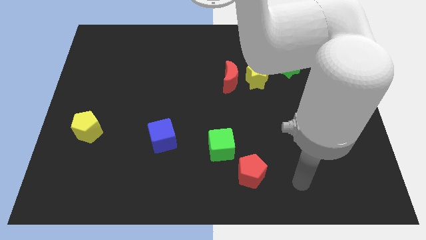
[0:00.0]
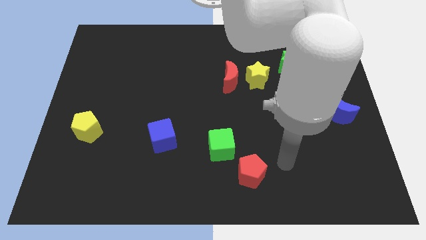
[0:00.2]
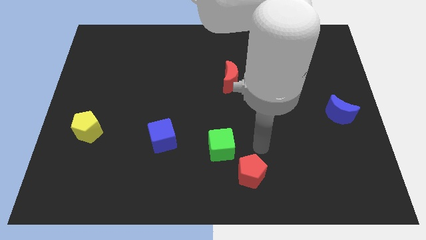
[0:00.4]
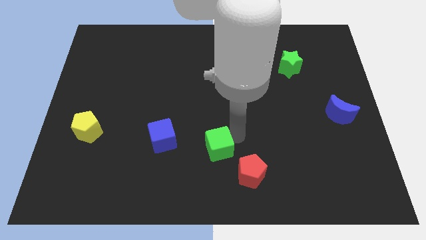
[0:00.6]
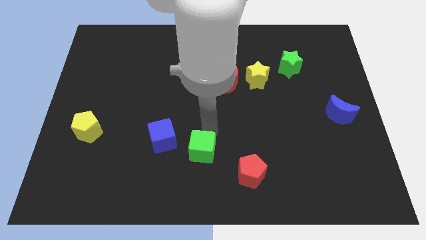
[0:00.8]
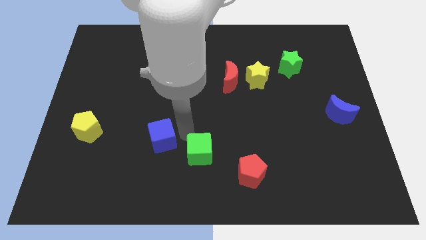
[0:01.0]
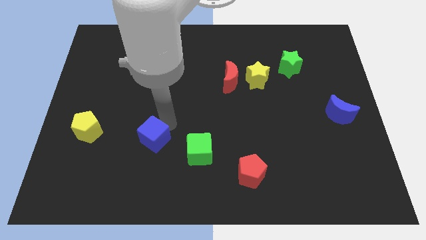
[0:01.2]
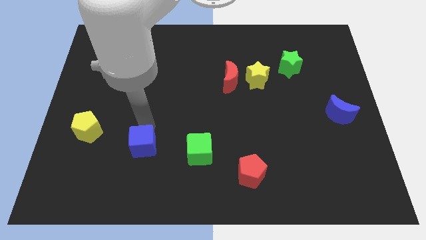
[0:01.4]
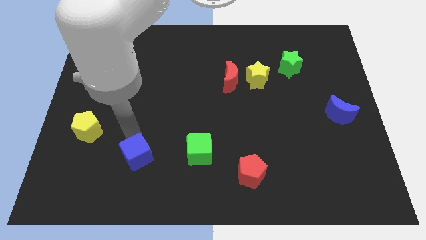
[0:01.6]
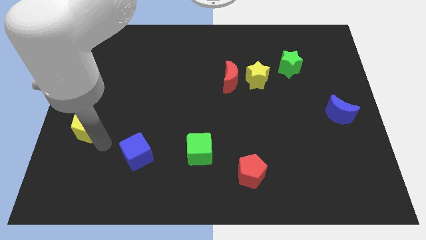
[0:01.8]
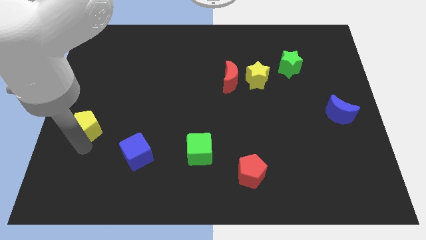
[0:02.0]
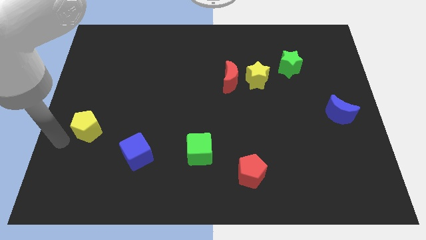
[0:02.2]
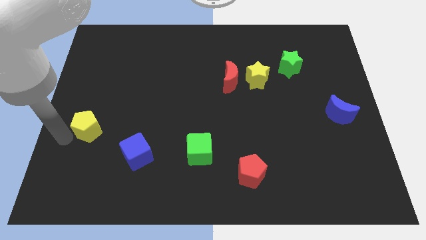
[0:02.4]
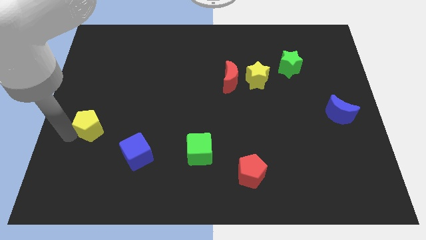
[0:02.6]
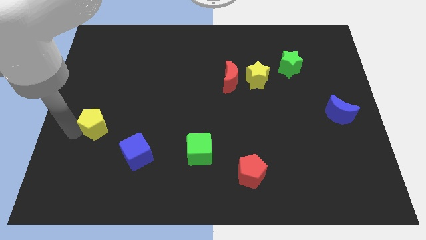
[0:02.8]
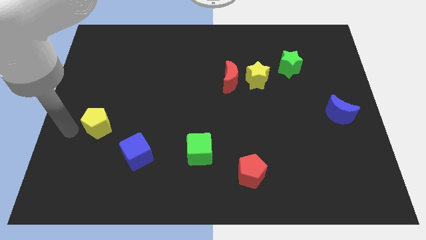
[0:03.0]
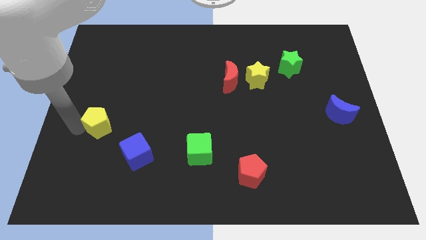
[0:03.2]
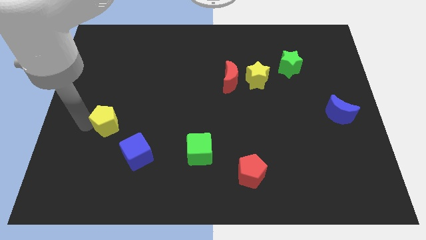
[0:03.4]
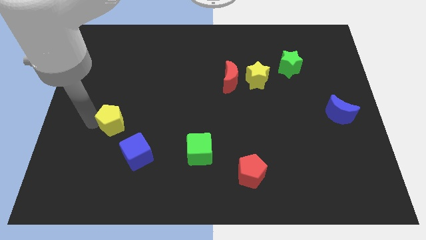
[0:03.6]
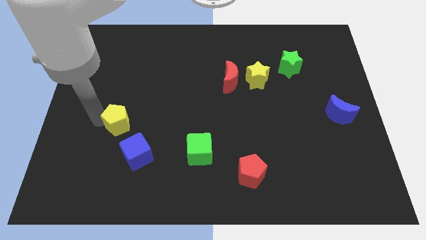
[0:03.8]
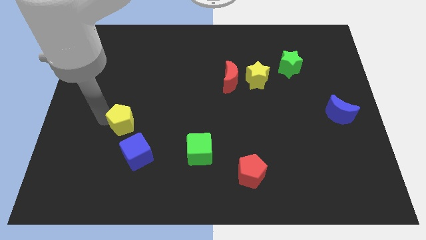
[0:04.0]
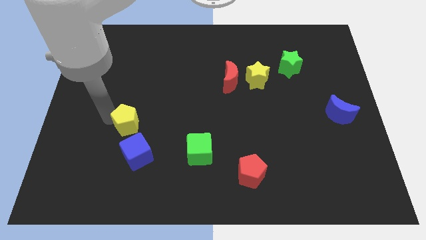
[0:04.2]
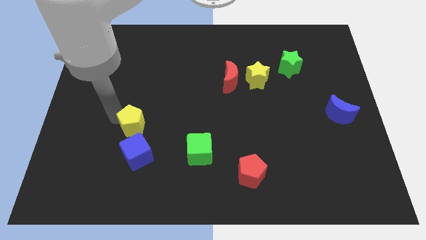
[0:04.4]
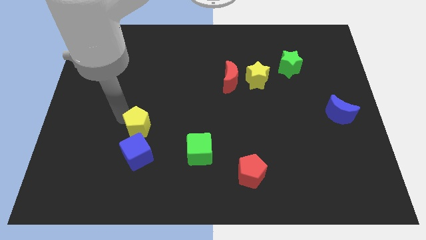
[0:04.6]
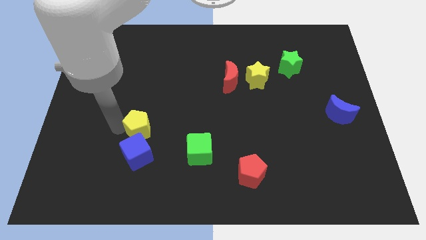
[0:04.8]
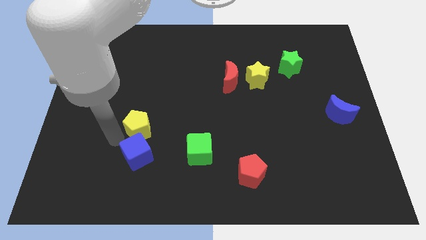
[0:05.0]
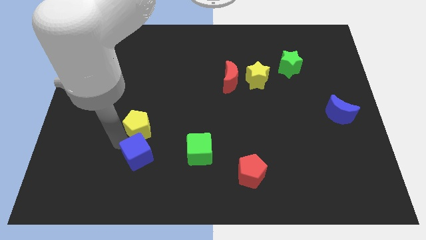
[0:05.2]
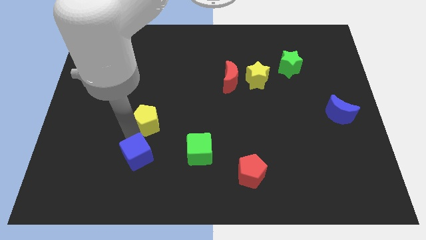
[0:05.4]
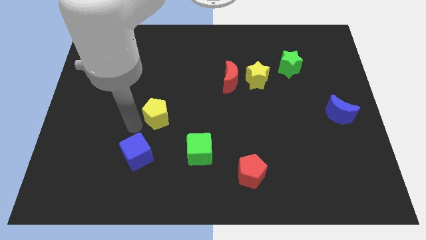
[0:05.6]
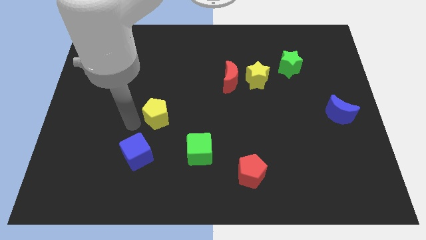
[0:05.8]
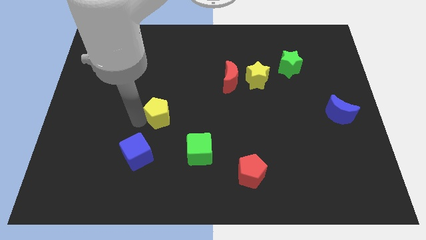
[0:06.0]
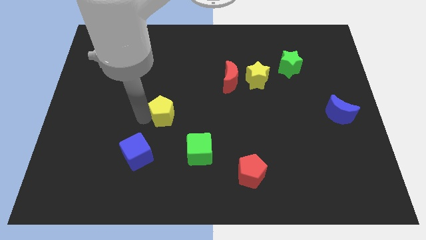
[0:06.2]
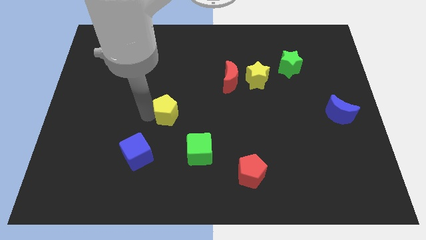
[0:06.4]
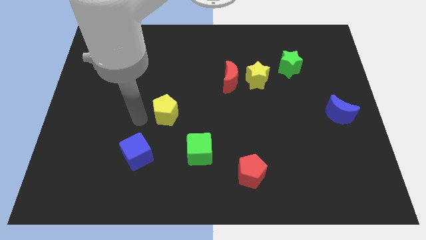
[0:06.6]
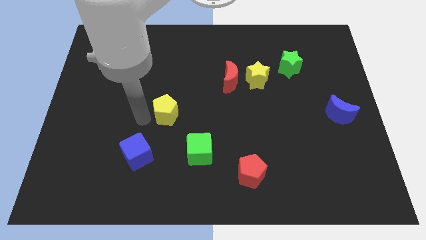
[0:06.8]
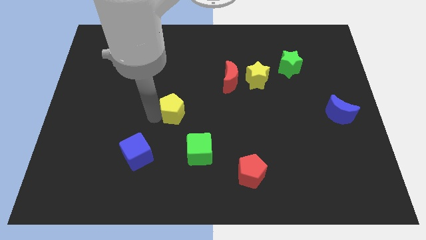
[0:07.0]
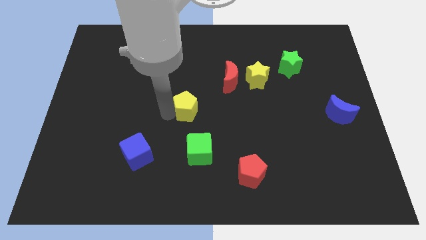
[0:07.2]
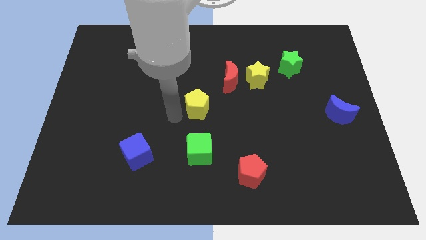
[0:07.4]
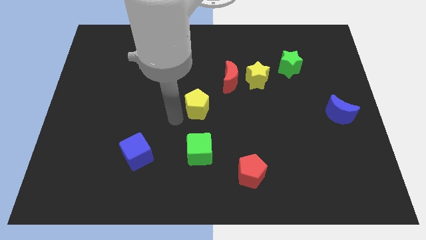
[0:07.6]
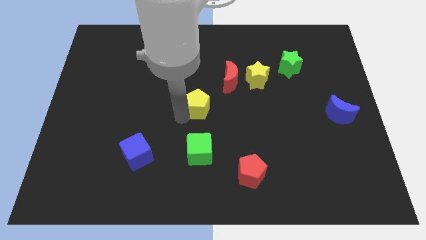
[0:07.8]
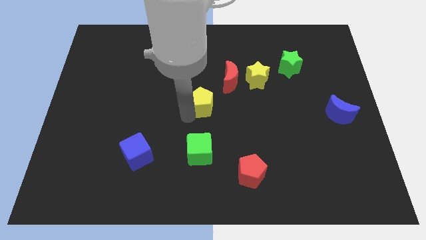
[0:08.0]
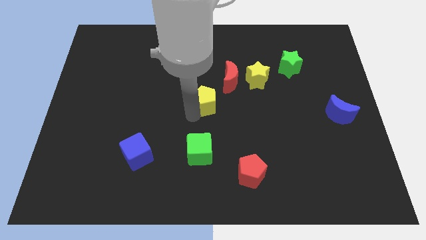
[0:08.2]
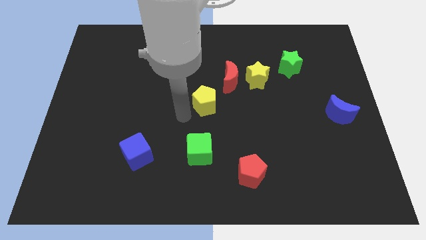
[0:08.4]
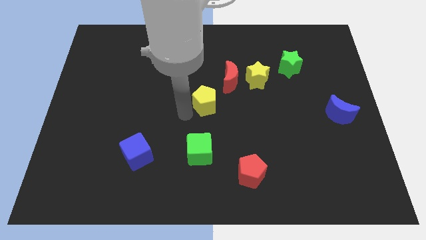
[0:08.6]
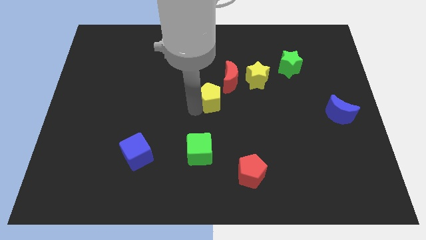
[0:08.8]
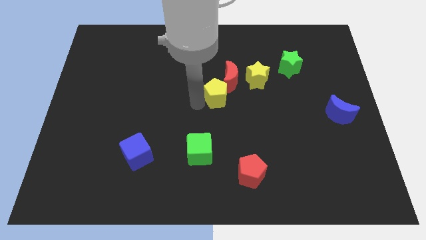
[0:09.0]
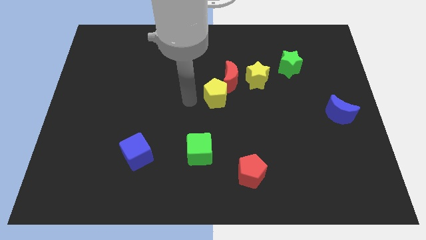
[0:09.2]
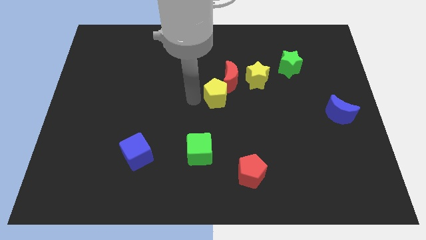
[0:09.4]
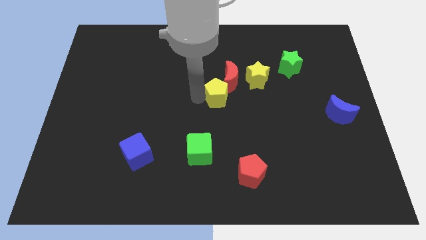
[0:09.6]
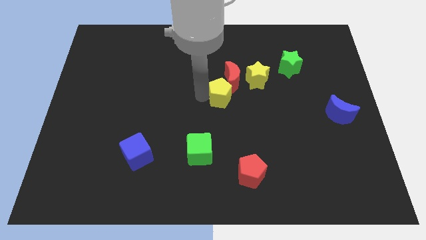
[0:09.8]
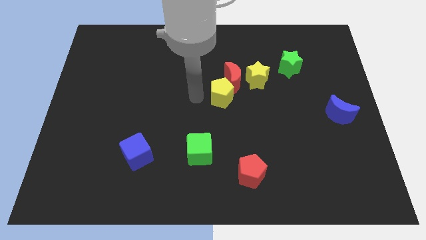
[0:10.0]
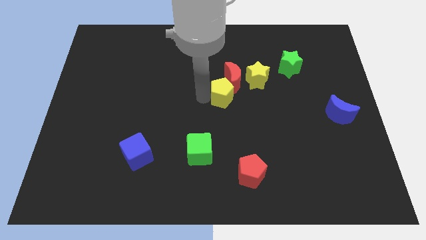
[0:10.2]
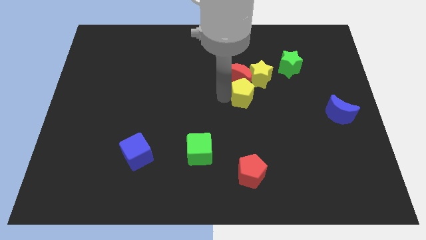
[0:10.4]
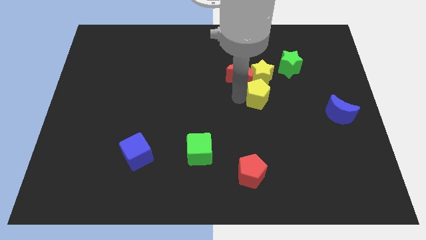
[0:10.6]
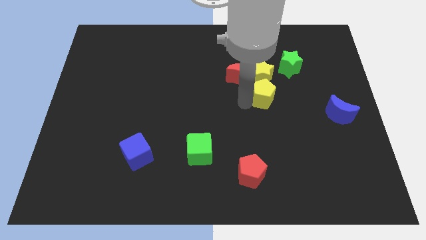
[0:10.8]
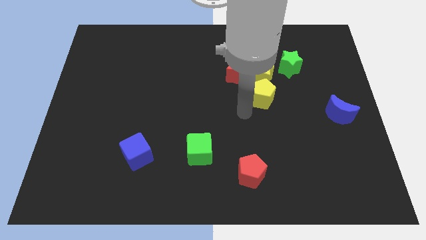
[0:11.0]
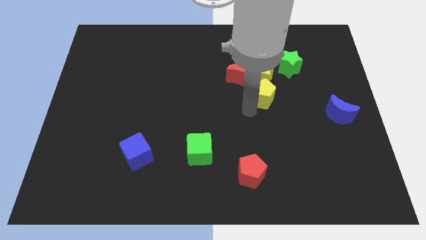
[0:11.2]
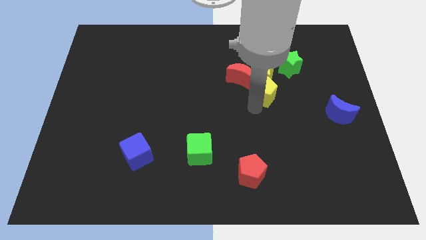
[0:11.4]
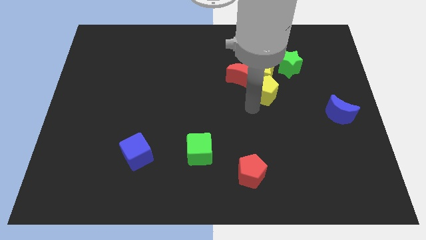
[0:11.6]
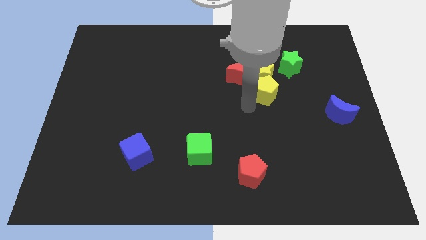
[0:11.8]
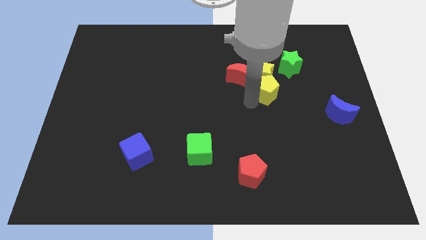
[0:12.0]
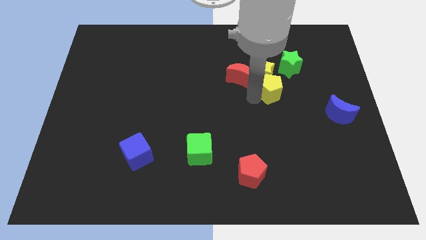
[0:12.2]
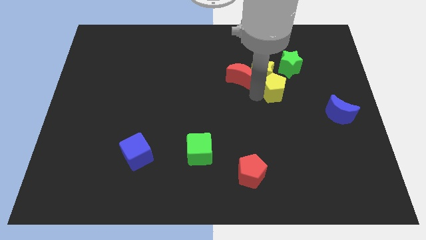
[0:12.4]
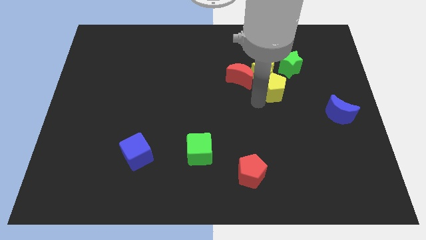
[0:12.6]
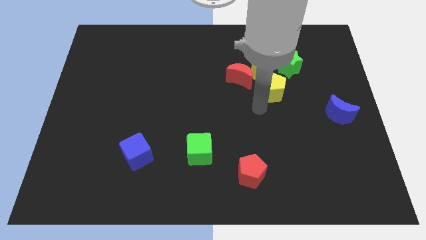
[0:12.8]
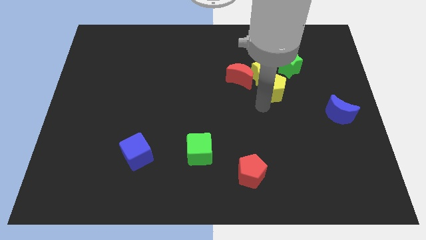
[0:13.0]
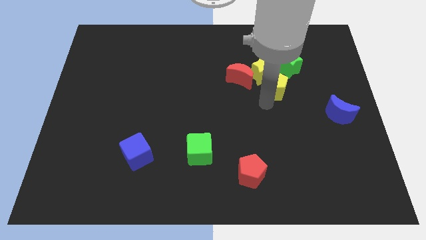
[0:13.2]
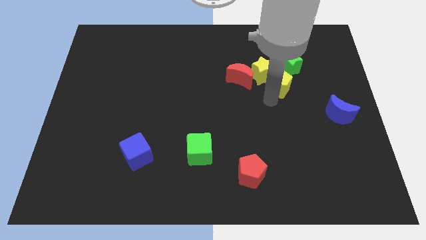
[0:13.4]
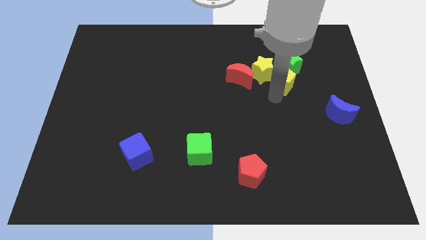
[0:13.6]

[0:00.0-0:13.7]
put the yellow pentagon close to the green star

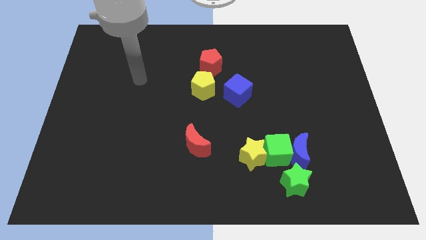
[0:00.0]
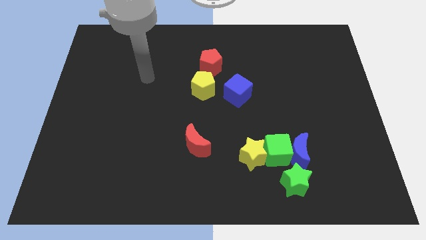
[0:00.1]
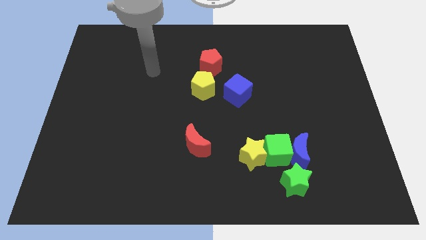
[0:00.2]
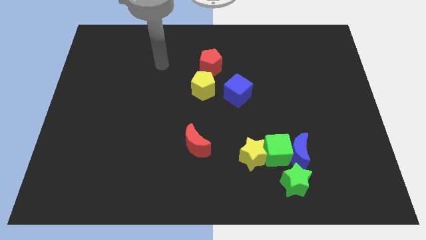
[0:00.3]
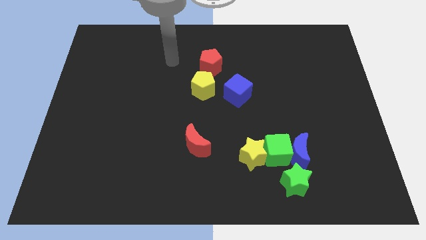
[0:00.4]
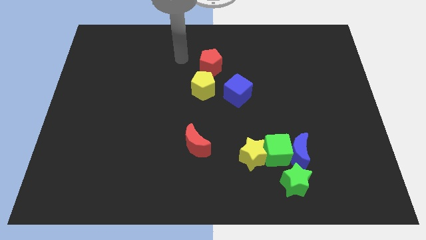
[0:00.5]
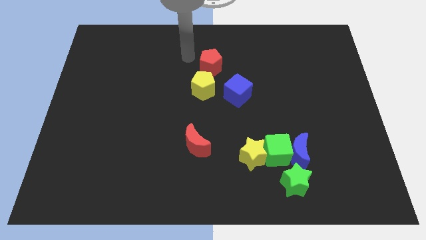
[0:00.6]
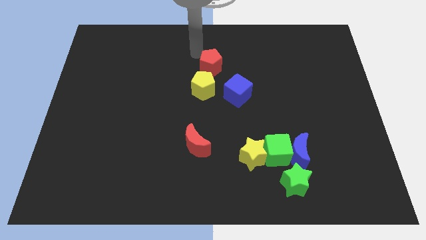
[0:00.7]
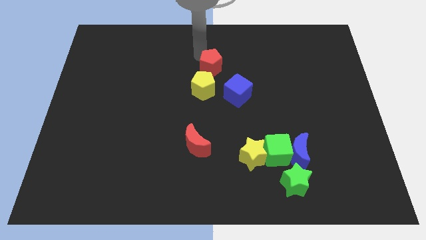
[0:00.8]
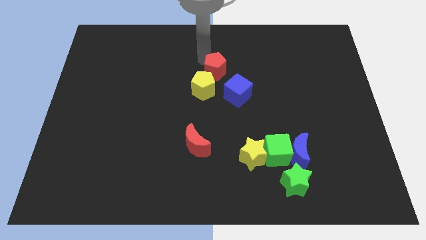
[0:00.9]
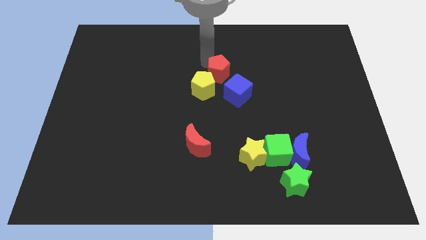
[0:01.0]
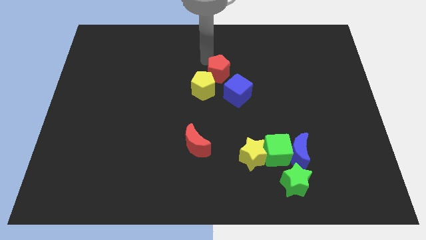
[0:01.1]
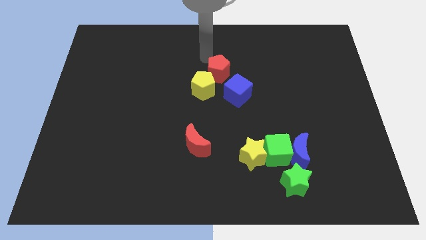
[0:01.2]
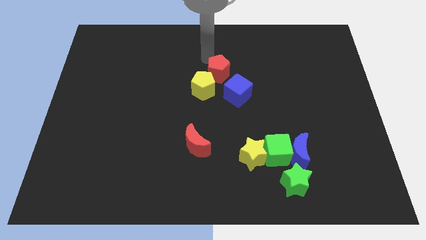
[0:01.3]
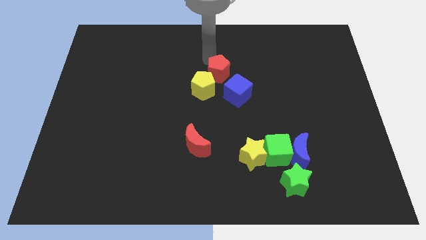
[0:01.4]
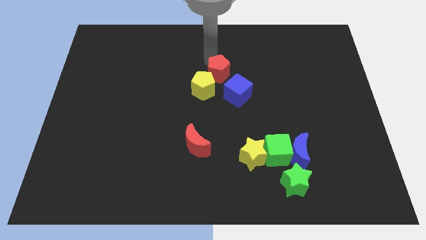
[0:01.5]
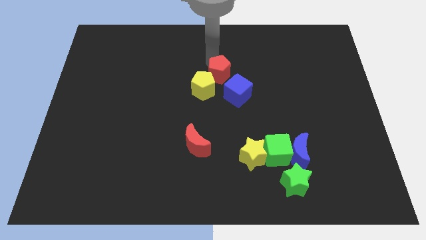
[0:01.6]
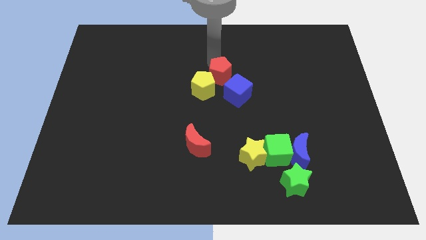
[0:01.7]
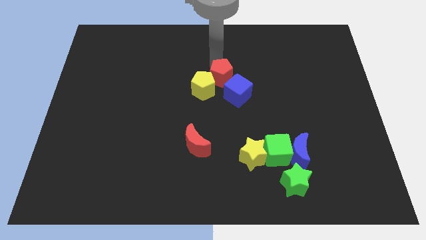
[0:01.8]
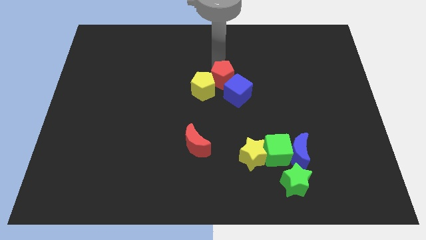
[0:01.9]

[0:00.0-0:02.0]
slide the red pentagon to the blue cube
